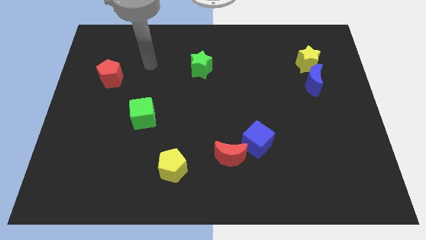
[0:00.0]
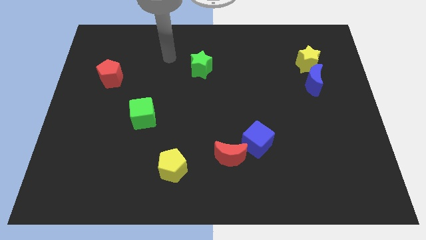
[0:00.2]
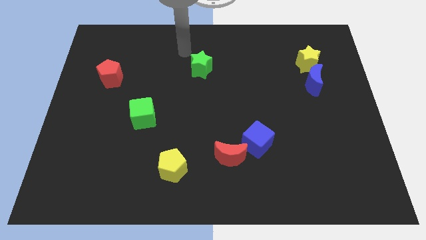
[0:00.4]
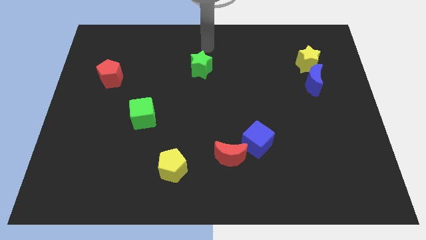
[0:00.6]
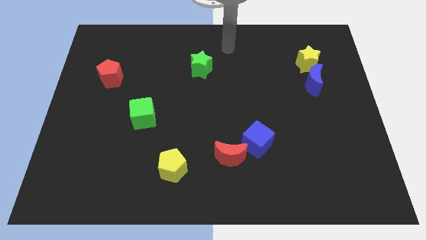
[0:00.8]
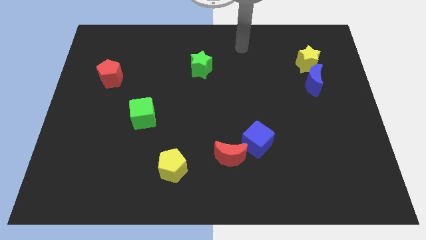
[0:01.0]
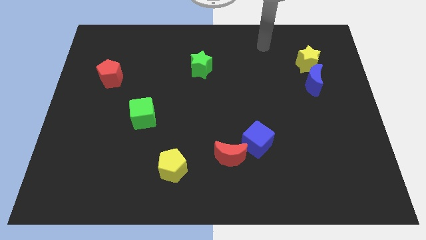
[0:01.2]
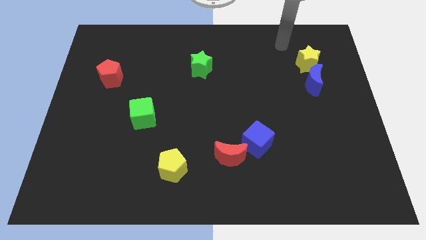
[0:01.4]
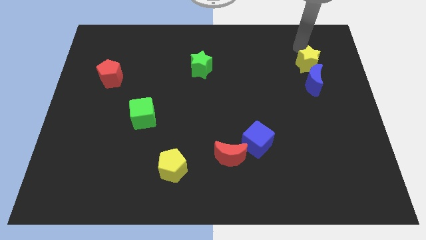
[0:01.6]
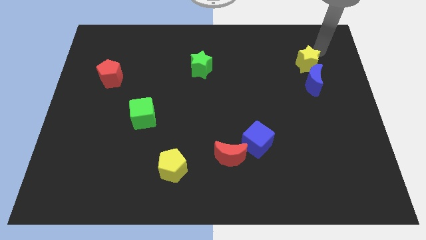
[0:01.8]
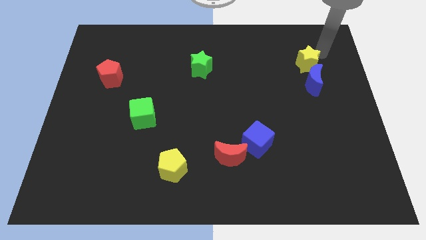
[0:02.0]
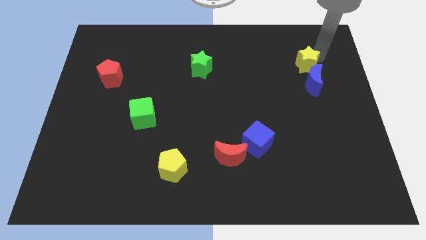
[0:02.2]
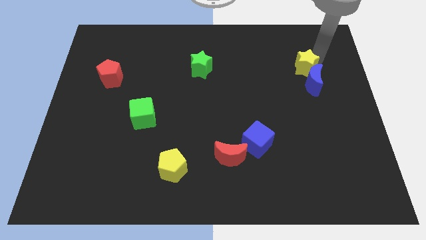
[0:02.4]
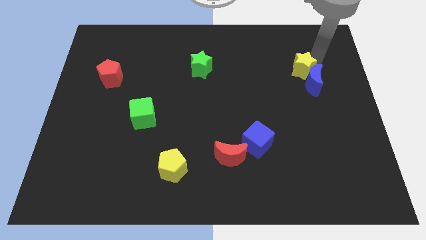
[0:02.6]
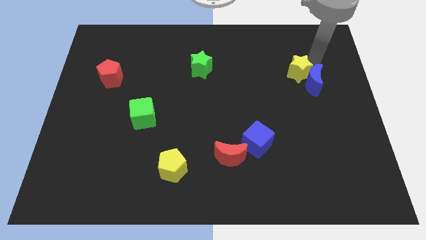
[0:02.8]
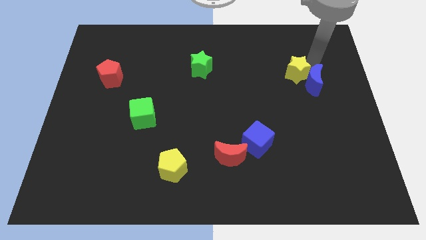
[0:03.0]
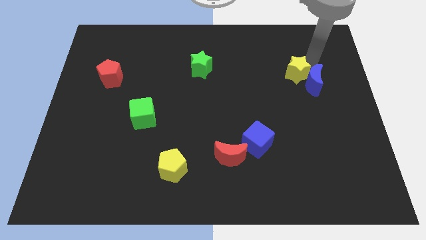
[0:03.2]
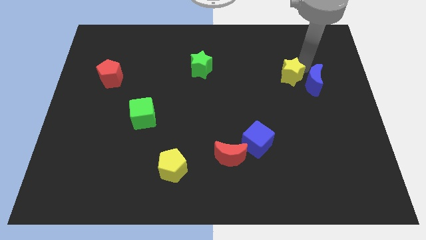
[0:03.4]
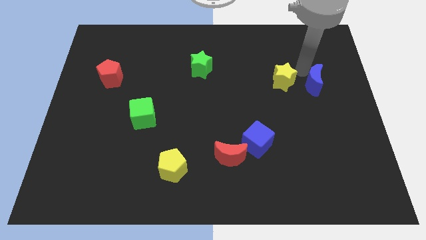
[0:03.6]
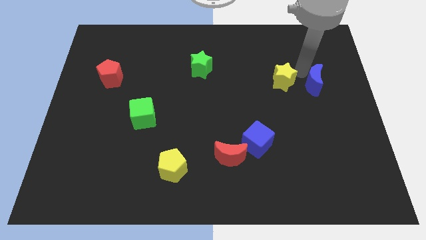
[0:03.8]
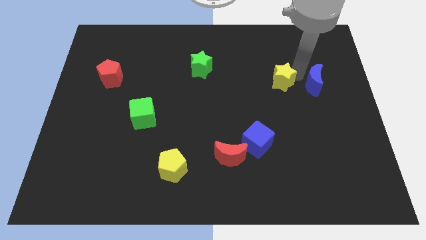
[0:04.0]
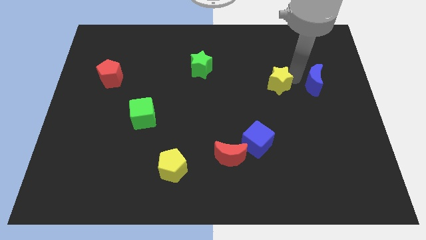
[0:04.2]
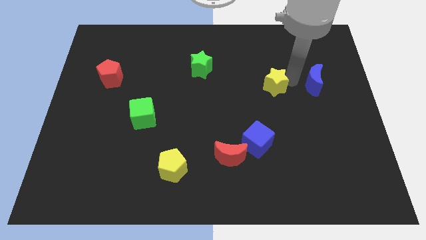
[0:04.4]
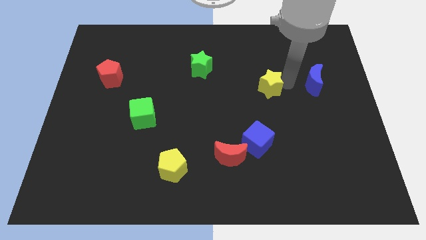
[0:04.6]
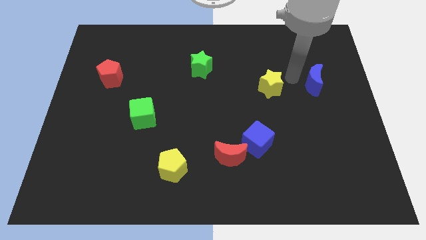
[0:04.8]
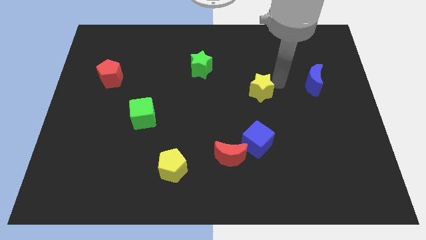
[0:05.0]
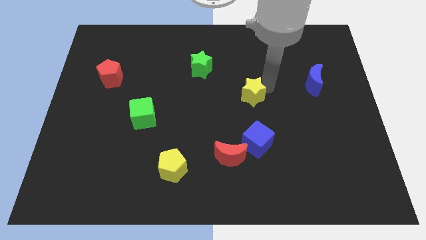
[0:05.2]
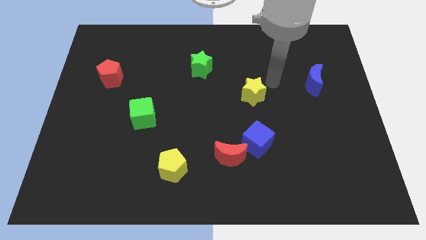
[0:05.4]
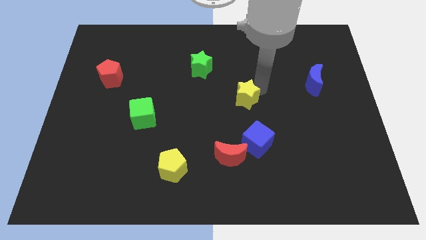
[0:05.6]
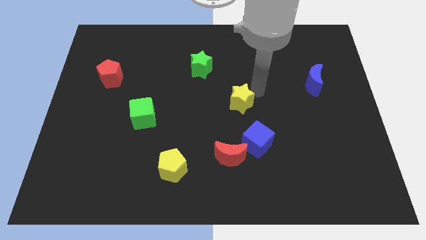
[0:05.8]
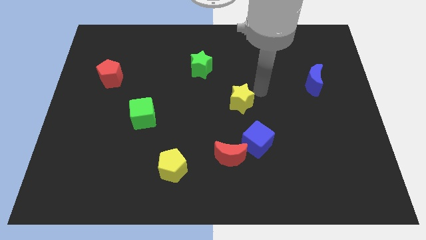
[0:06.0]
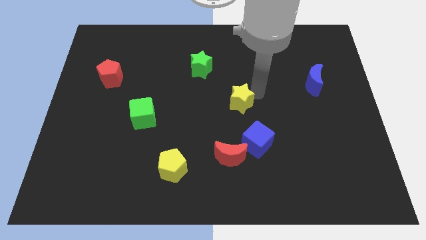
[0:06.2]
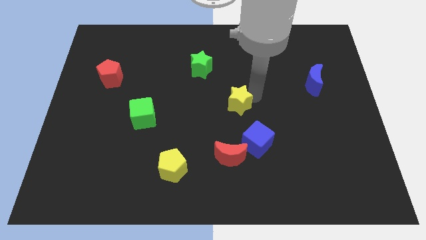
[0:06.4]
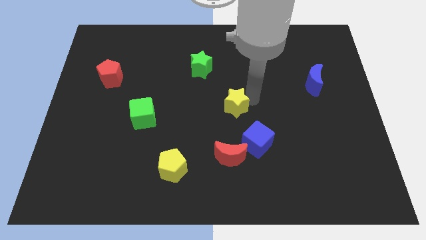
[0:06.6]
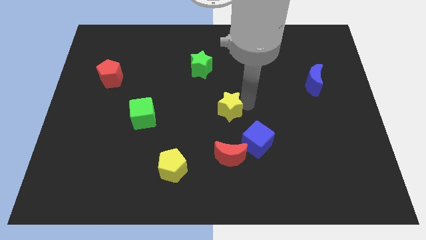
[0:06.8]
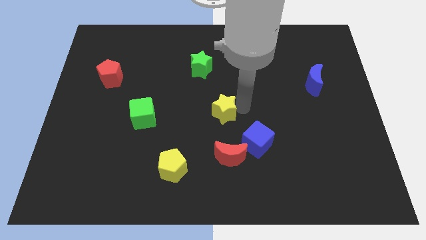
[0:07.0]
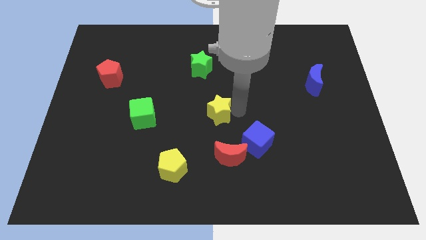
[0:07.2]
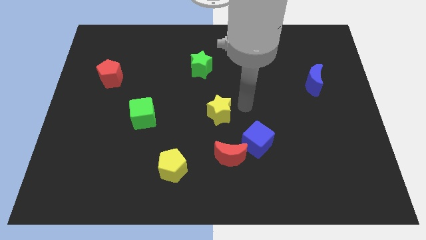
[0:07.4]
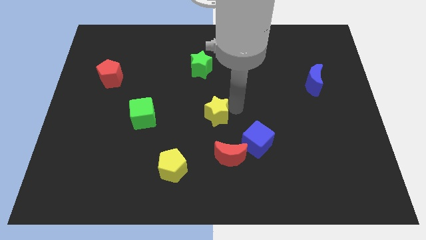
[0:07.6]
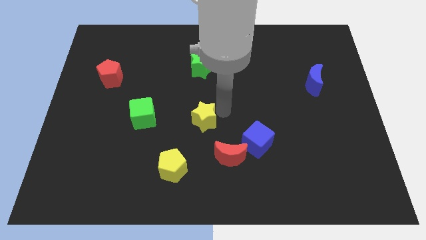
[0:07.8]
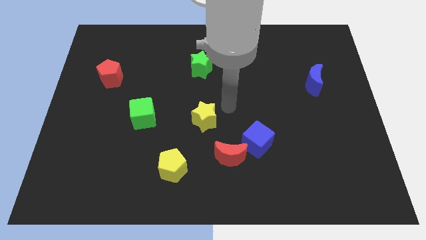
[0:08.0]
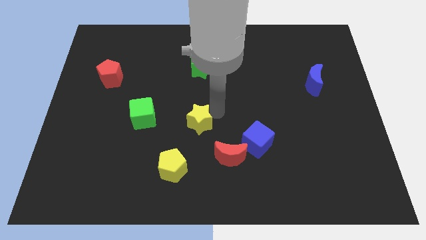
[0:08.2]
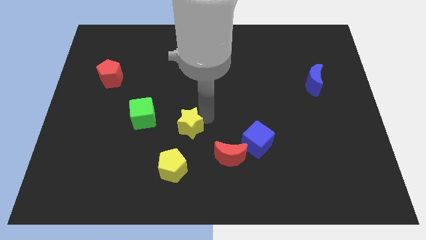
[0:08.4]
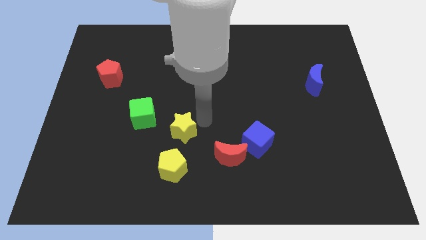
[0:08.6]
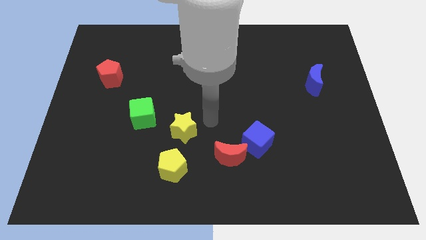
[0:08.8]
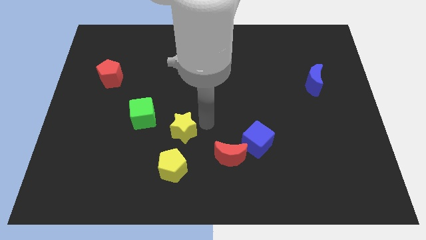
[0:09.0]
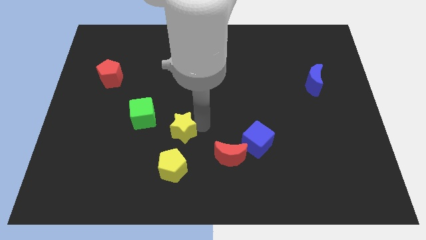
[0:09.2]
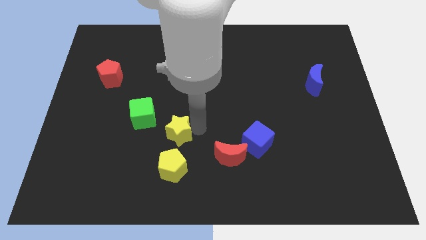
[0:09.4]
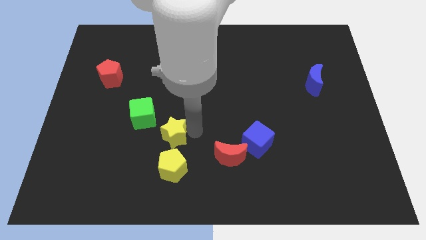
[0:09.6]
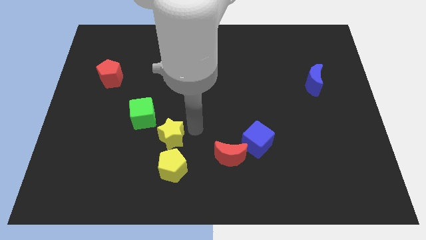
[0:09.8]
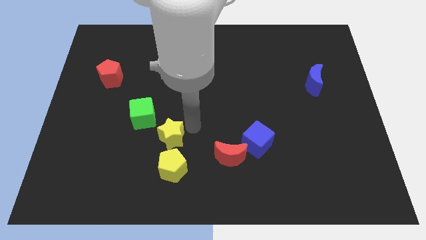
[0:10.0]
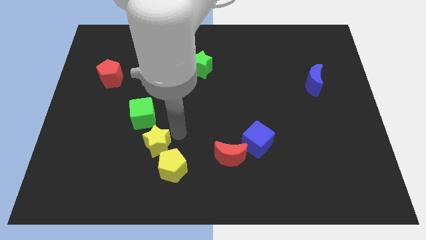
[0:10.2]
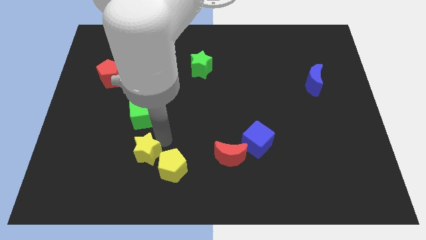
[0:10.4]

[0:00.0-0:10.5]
push the yellow star left of the yellow pentagon

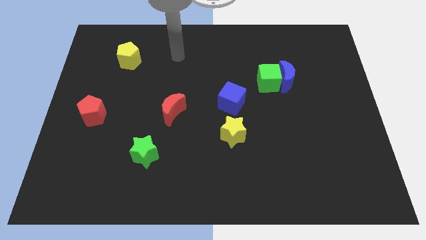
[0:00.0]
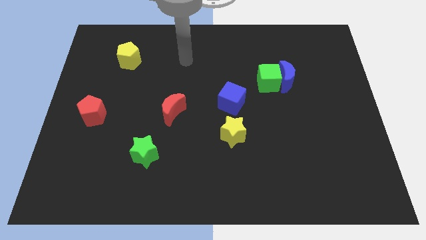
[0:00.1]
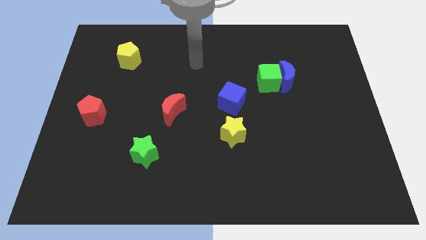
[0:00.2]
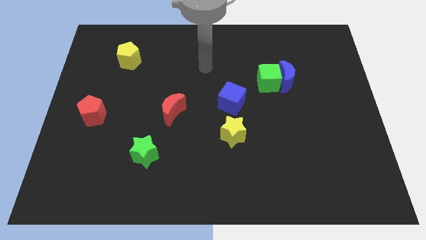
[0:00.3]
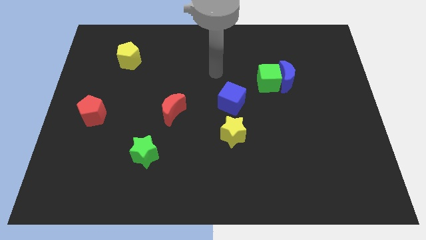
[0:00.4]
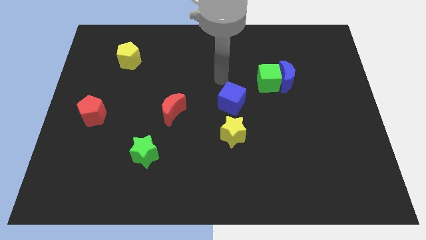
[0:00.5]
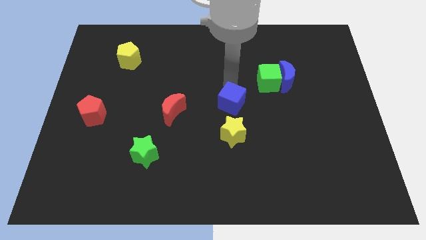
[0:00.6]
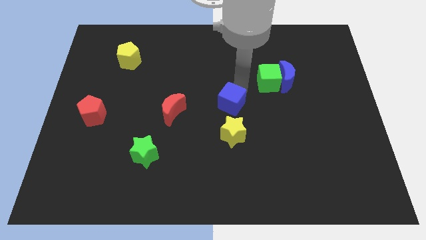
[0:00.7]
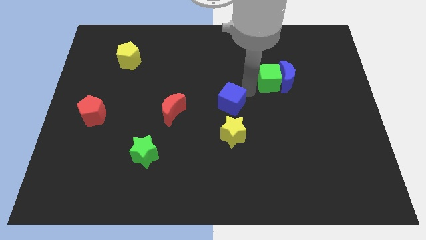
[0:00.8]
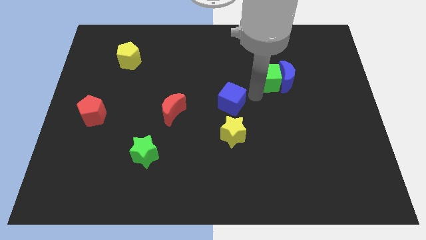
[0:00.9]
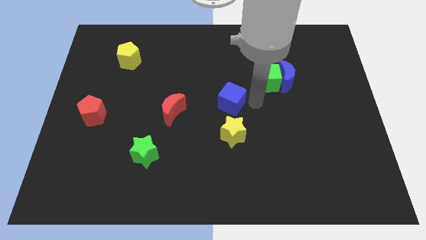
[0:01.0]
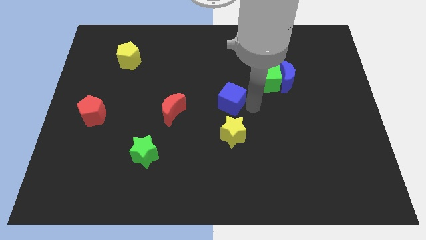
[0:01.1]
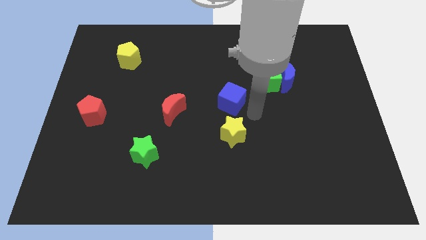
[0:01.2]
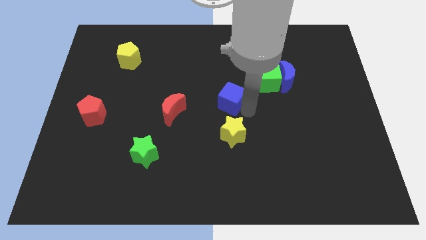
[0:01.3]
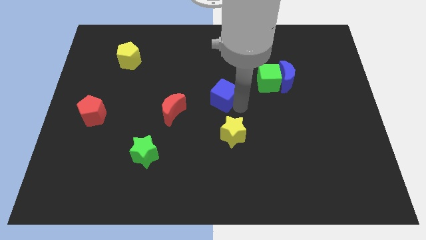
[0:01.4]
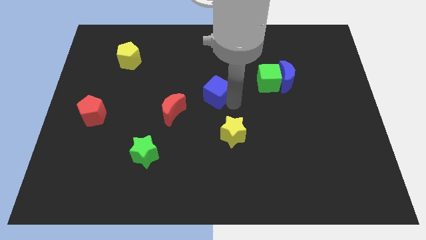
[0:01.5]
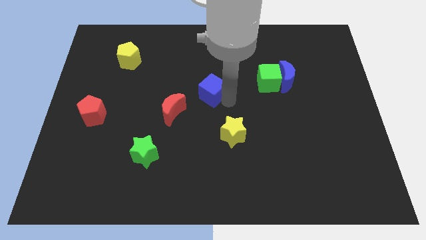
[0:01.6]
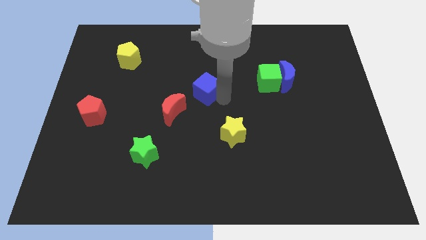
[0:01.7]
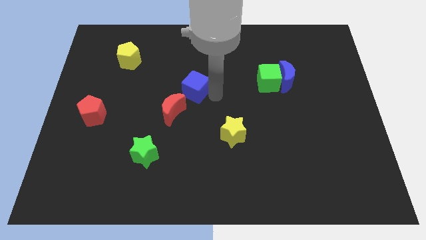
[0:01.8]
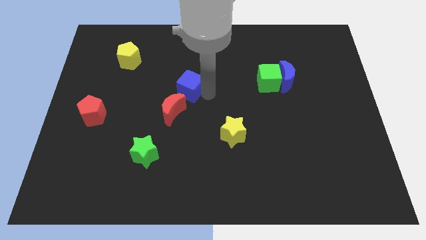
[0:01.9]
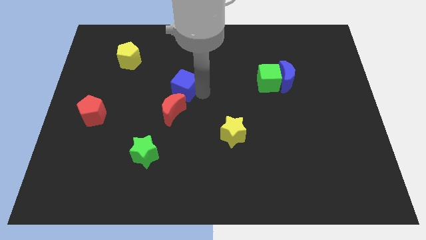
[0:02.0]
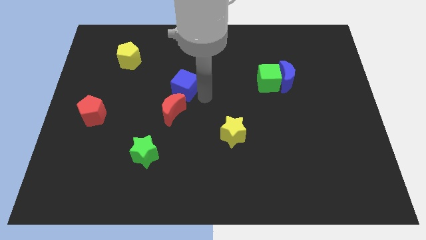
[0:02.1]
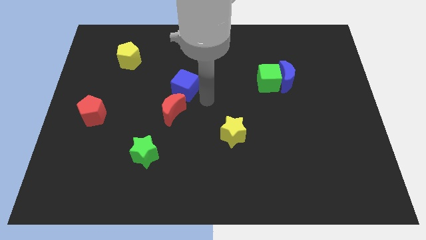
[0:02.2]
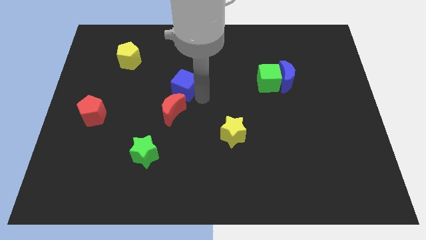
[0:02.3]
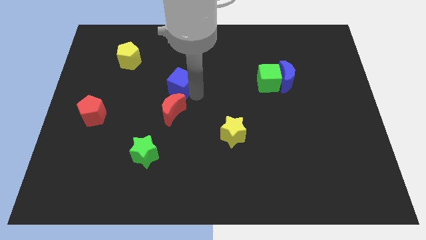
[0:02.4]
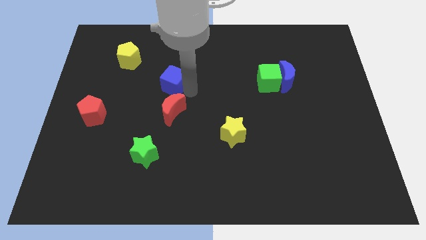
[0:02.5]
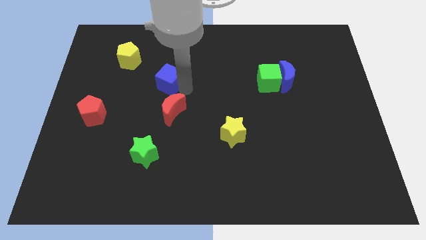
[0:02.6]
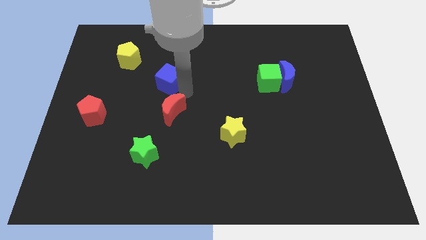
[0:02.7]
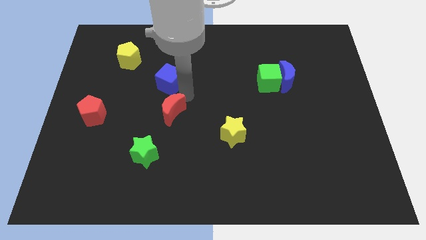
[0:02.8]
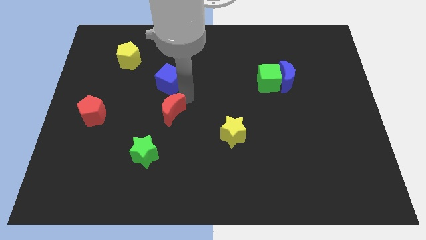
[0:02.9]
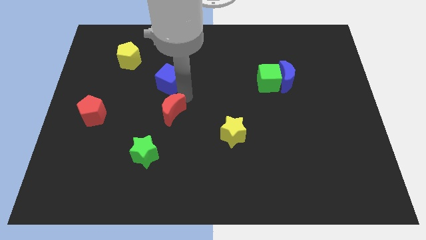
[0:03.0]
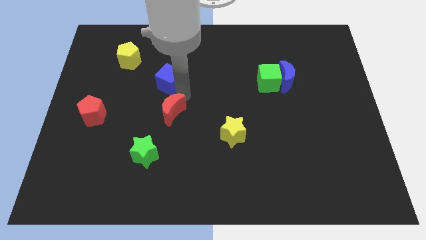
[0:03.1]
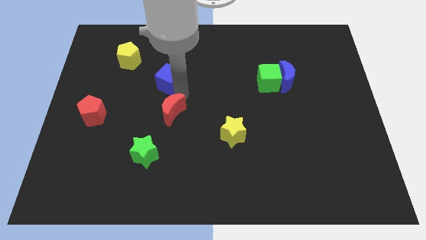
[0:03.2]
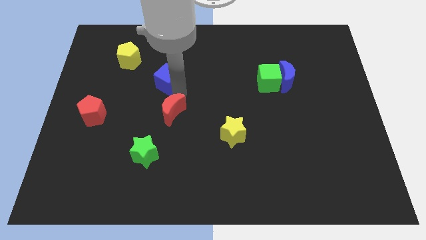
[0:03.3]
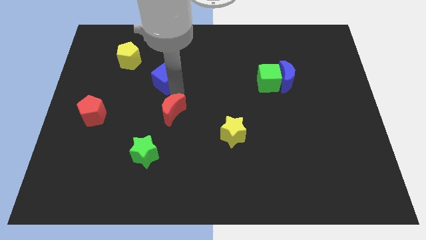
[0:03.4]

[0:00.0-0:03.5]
move the blue cube diagonally down and to the right of the yellow pentagon
